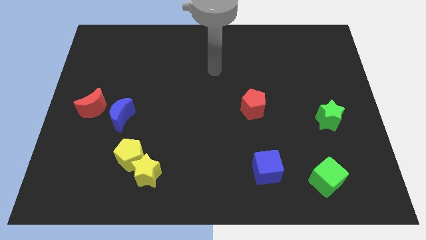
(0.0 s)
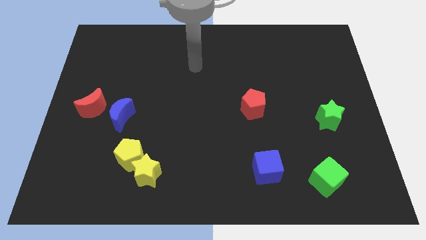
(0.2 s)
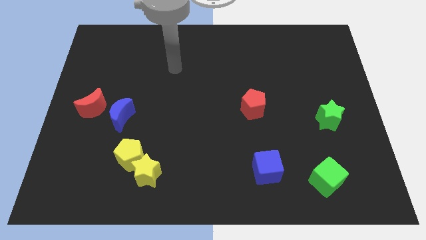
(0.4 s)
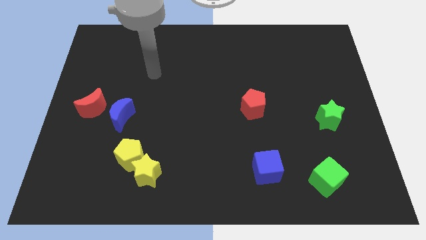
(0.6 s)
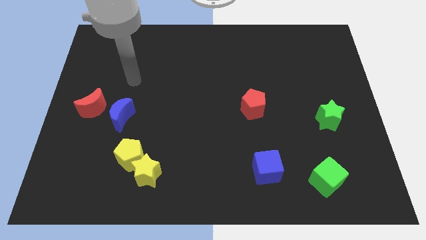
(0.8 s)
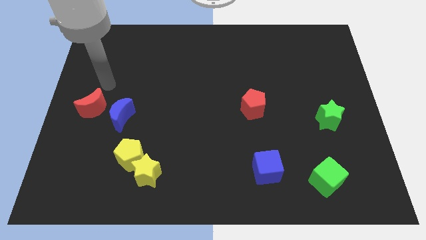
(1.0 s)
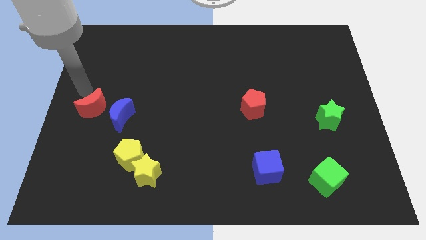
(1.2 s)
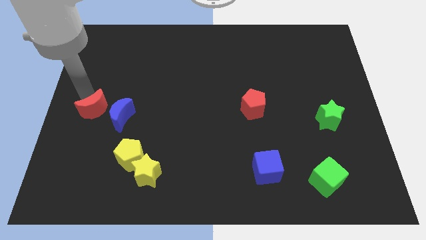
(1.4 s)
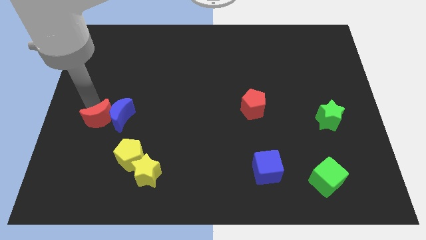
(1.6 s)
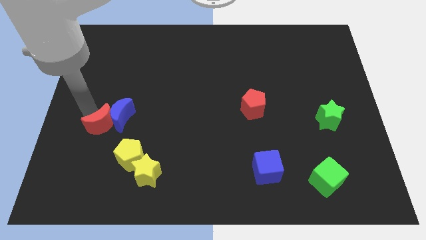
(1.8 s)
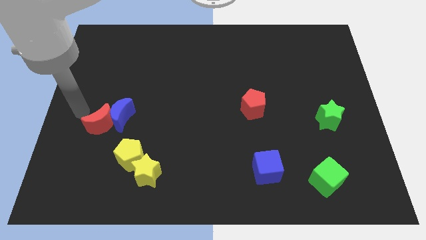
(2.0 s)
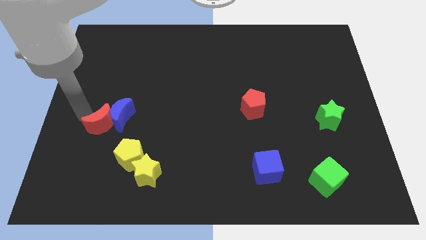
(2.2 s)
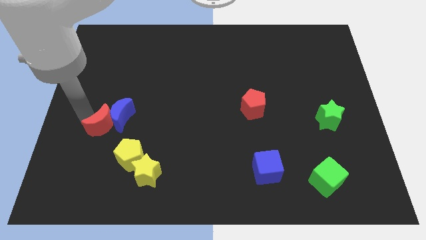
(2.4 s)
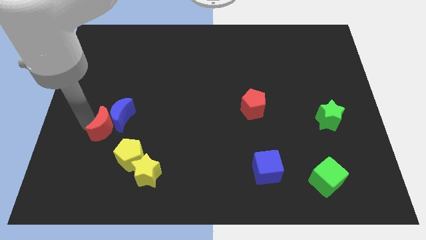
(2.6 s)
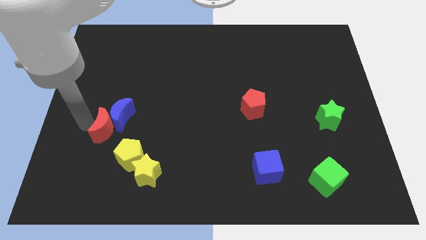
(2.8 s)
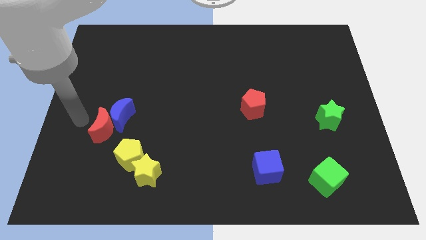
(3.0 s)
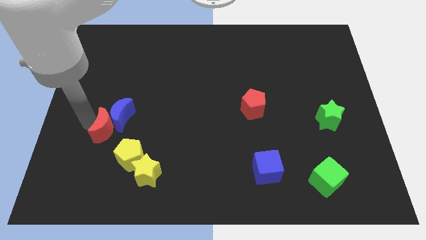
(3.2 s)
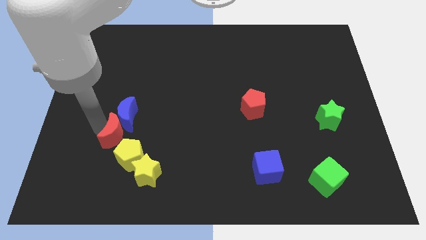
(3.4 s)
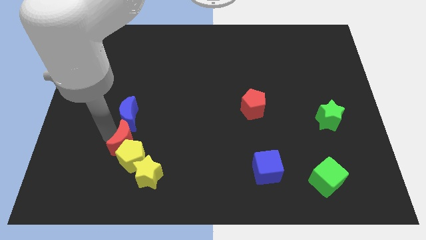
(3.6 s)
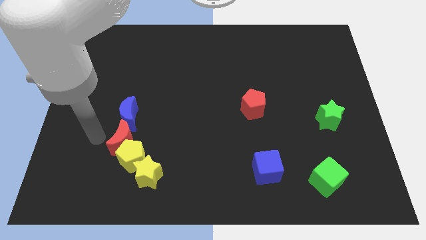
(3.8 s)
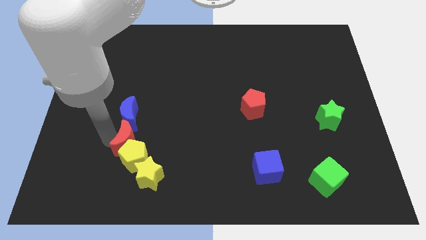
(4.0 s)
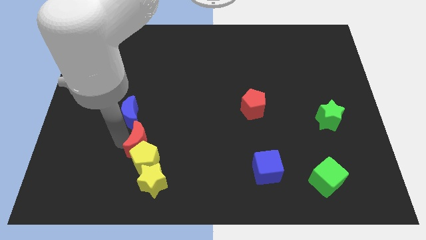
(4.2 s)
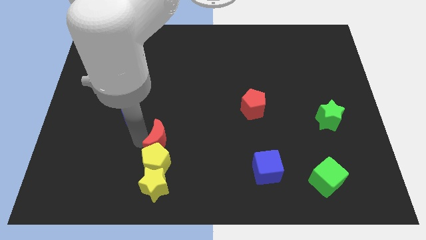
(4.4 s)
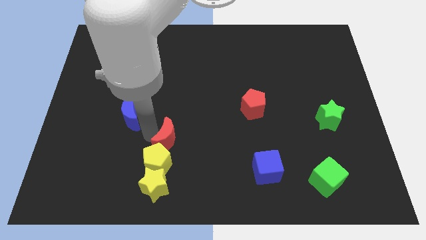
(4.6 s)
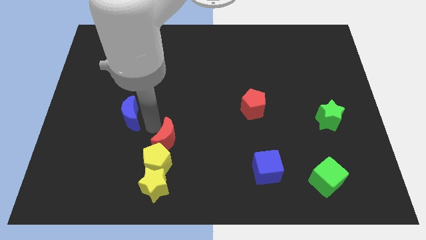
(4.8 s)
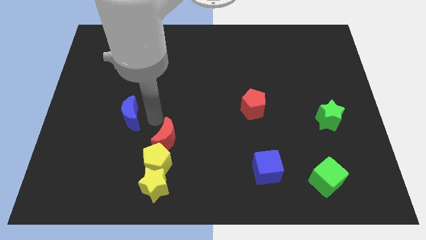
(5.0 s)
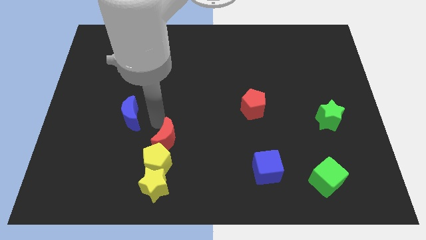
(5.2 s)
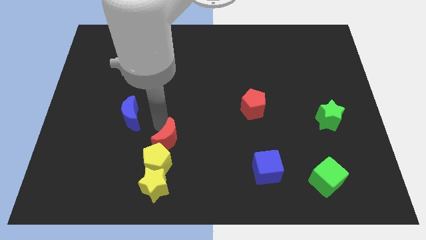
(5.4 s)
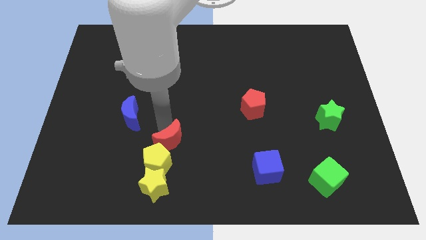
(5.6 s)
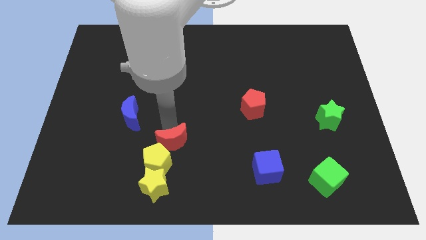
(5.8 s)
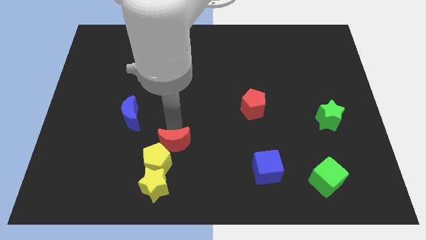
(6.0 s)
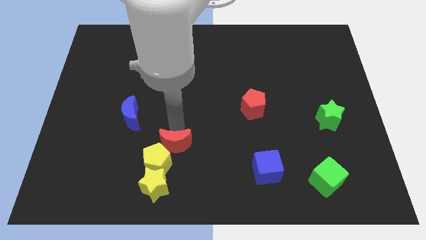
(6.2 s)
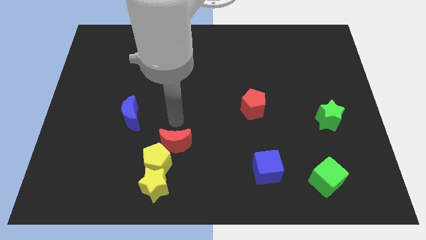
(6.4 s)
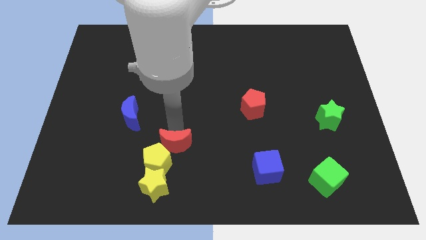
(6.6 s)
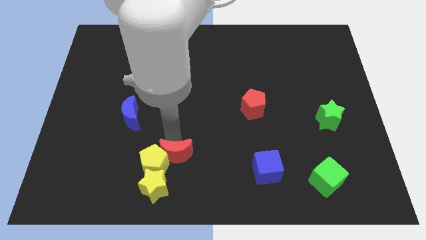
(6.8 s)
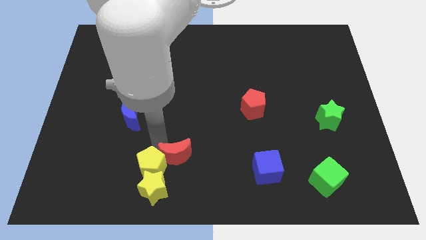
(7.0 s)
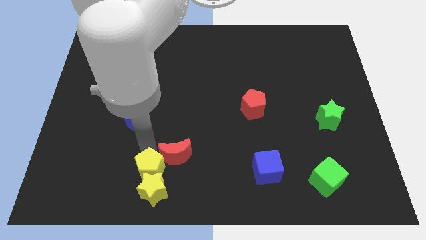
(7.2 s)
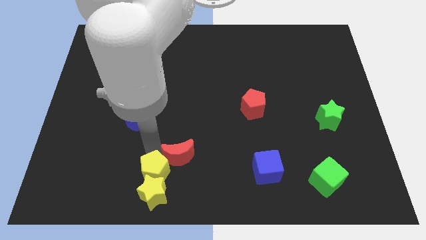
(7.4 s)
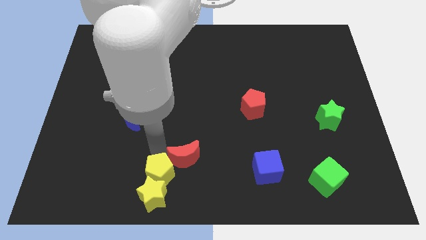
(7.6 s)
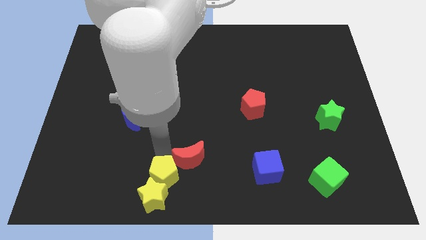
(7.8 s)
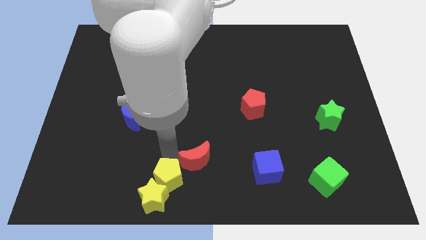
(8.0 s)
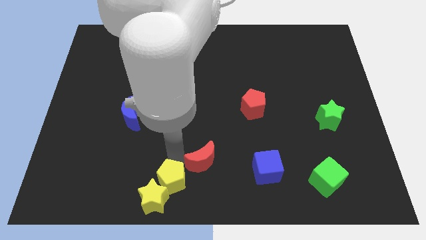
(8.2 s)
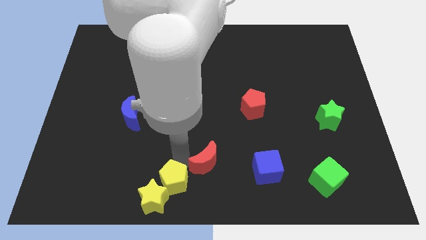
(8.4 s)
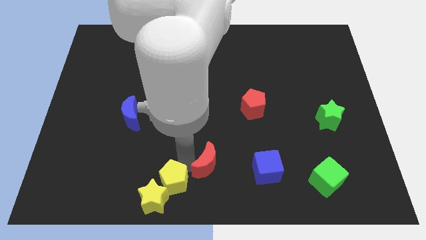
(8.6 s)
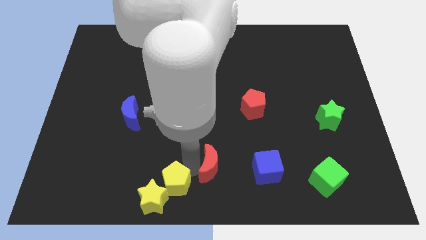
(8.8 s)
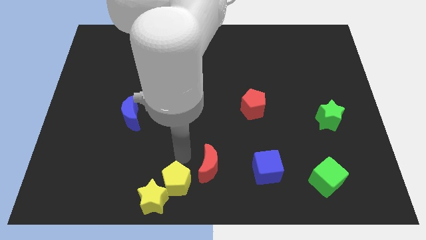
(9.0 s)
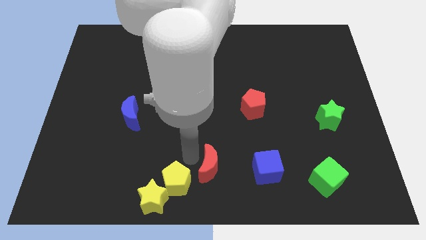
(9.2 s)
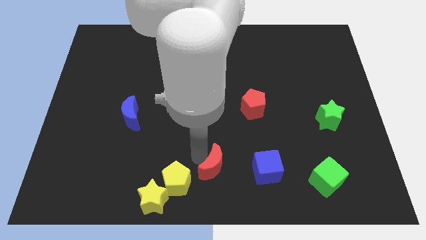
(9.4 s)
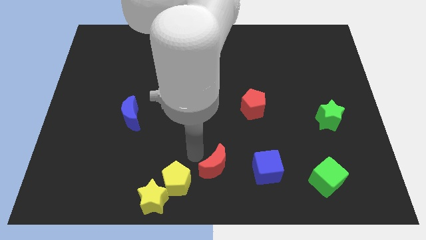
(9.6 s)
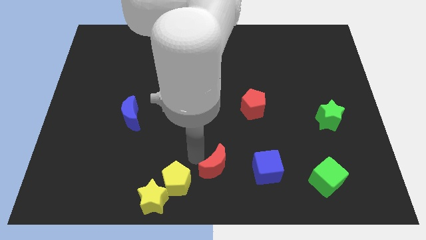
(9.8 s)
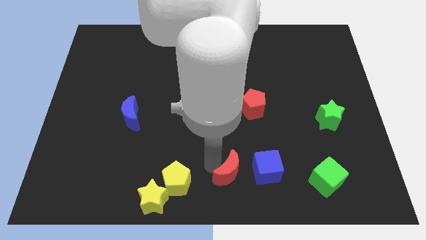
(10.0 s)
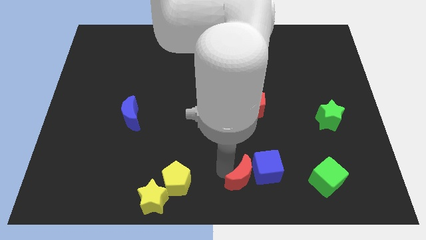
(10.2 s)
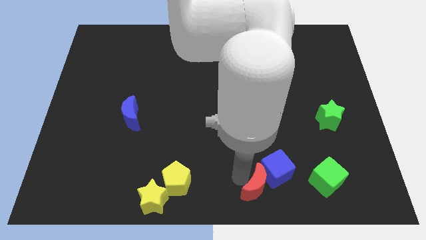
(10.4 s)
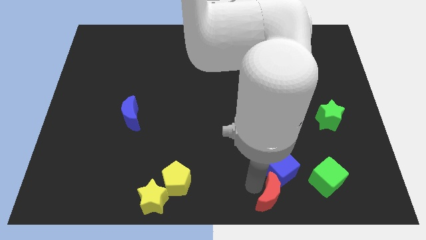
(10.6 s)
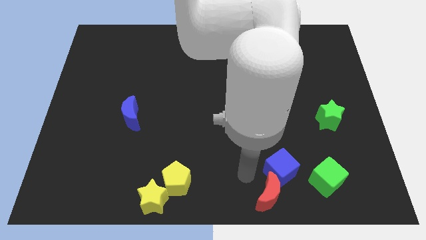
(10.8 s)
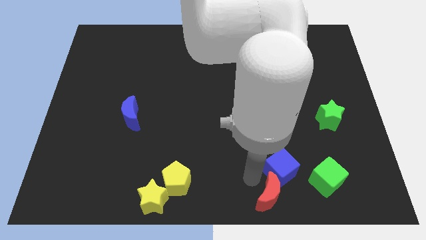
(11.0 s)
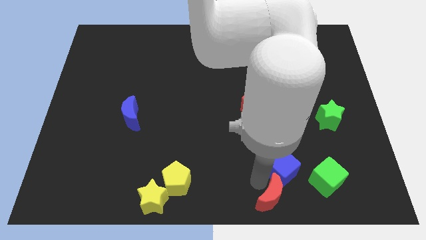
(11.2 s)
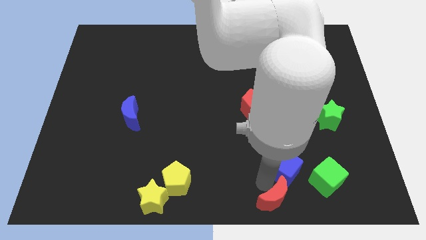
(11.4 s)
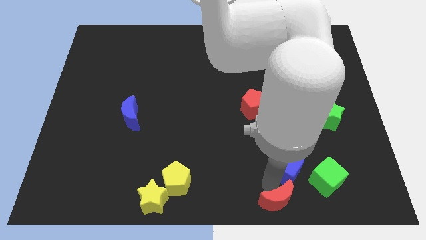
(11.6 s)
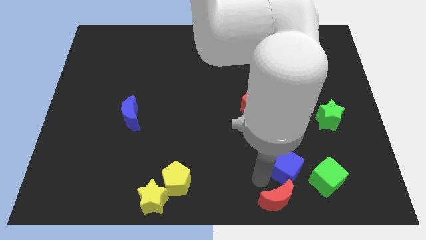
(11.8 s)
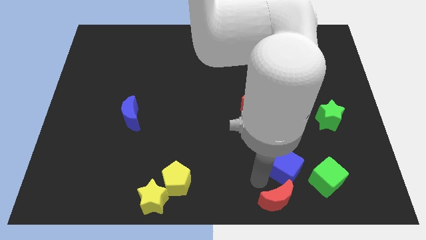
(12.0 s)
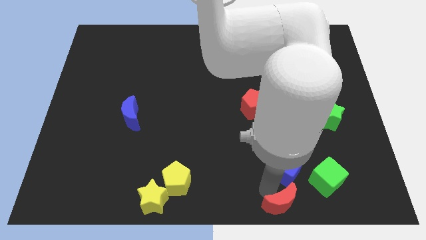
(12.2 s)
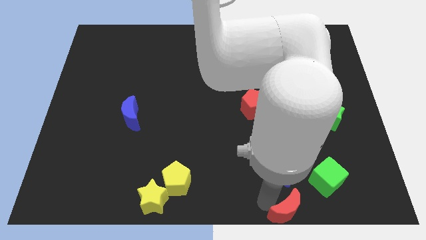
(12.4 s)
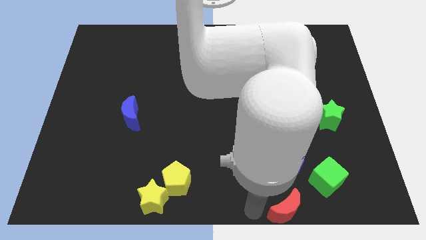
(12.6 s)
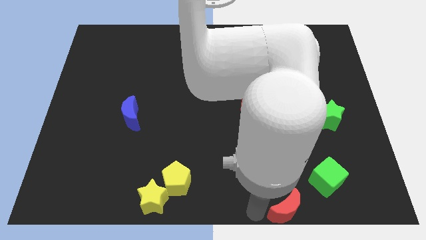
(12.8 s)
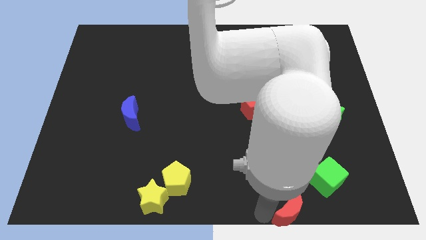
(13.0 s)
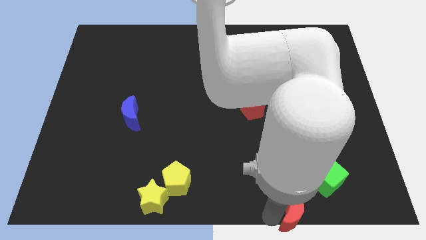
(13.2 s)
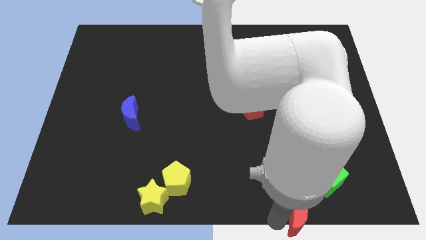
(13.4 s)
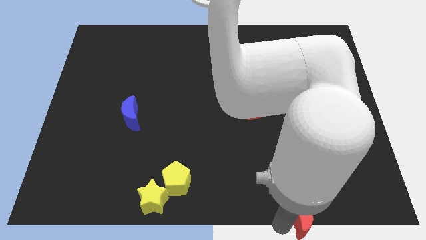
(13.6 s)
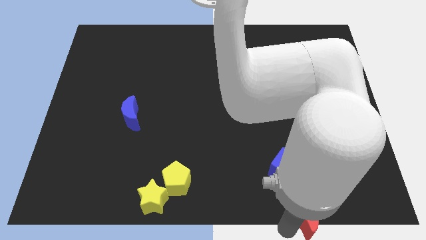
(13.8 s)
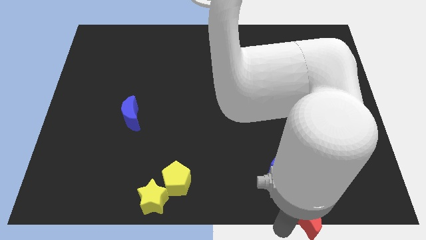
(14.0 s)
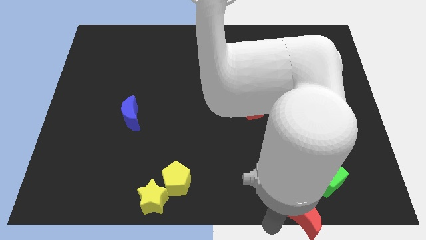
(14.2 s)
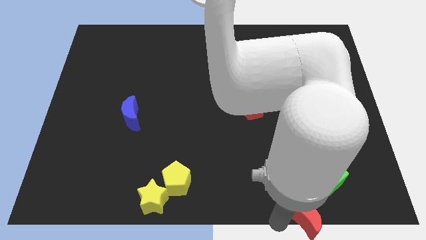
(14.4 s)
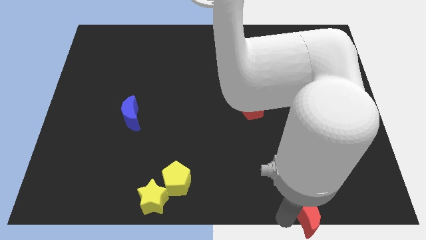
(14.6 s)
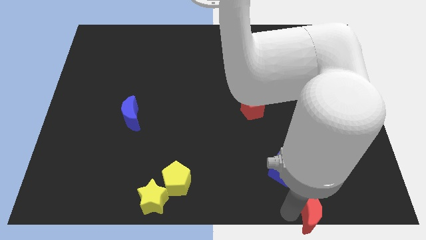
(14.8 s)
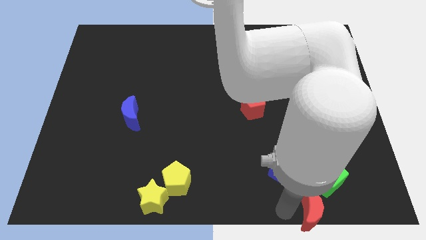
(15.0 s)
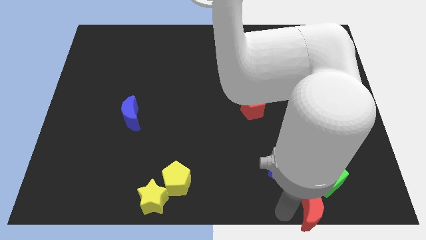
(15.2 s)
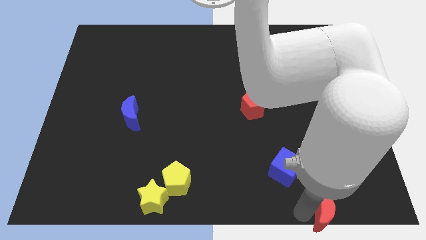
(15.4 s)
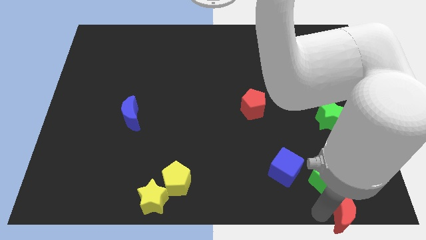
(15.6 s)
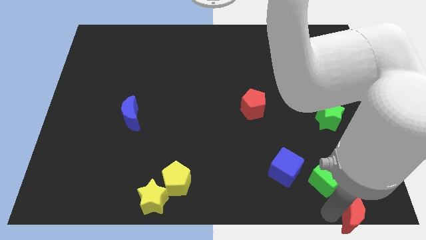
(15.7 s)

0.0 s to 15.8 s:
slide the red moon to the lower right corner
